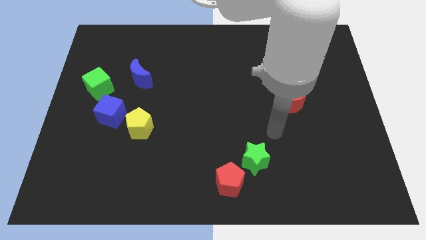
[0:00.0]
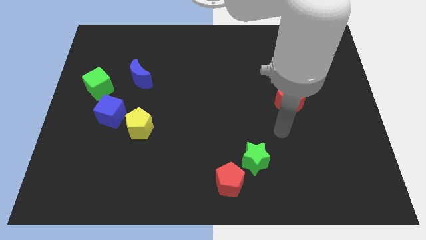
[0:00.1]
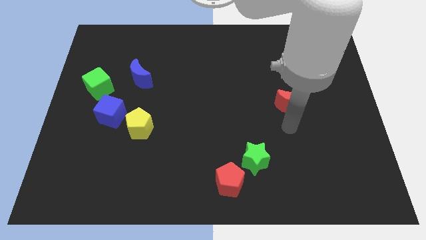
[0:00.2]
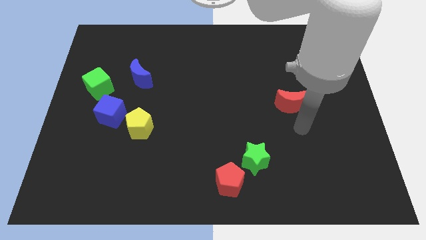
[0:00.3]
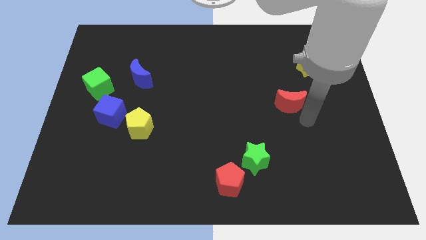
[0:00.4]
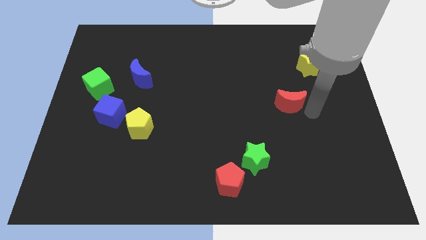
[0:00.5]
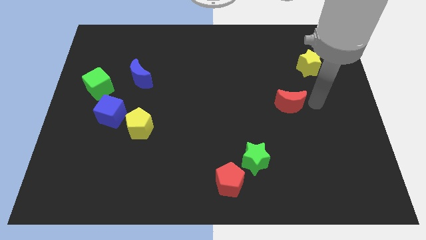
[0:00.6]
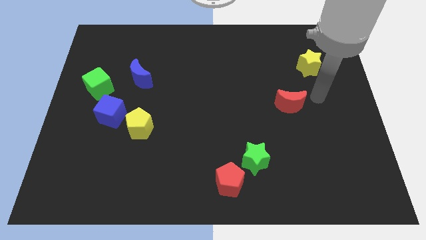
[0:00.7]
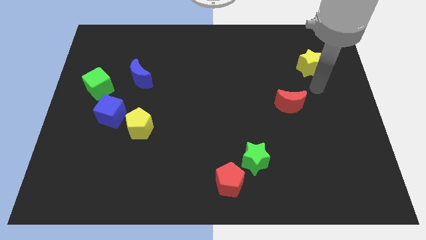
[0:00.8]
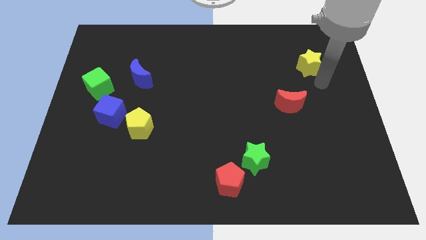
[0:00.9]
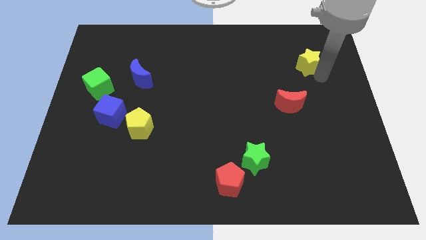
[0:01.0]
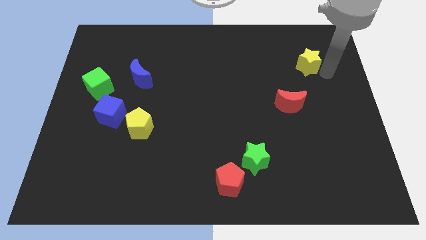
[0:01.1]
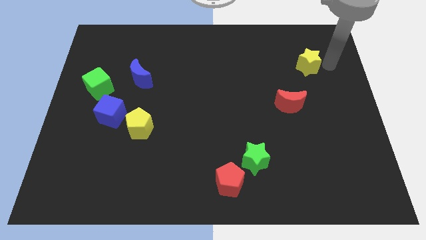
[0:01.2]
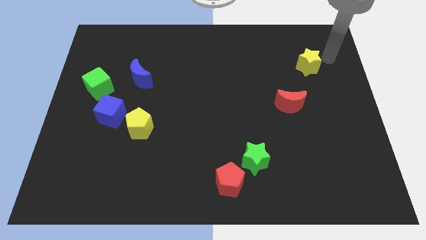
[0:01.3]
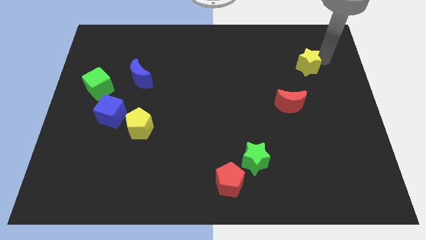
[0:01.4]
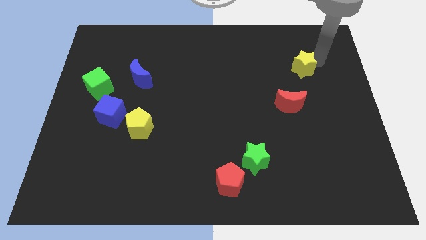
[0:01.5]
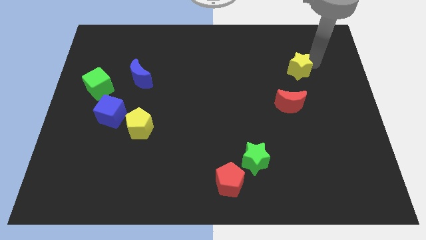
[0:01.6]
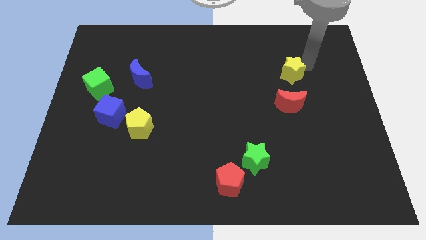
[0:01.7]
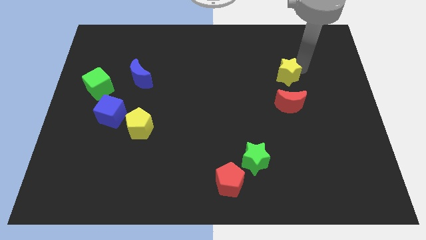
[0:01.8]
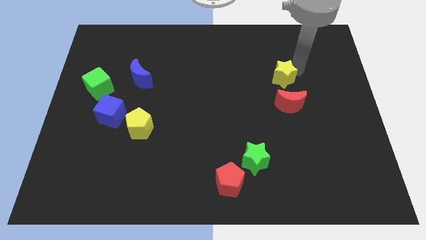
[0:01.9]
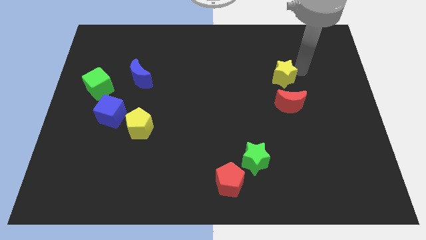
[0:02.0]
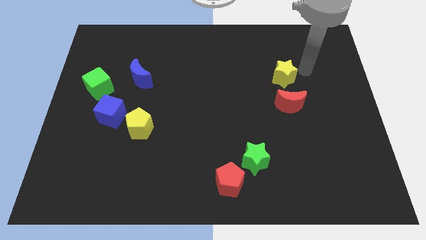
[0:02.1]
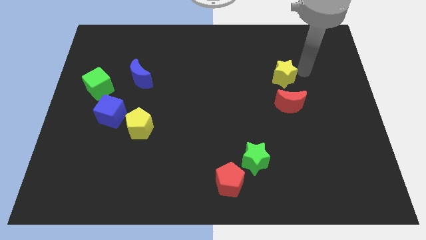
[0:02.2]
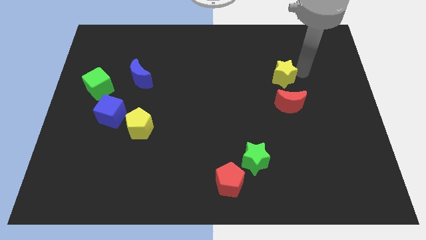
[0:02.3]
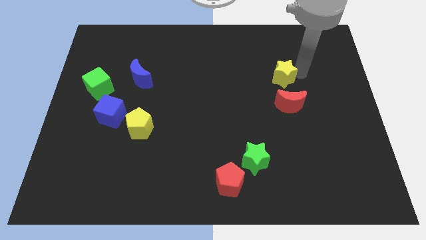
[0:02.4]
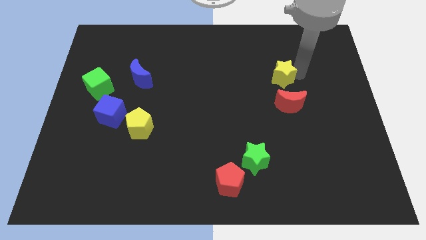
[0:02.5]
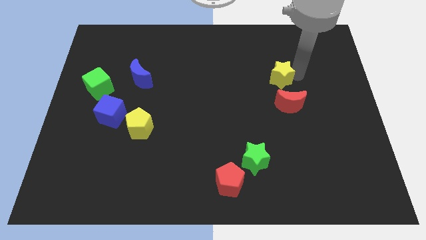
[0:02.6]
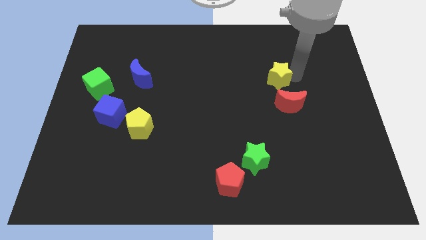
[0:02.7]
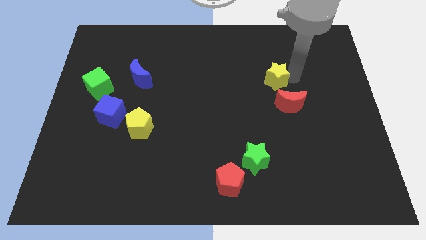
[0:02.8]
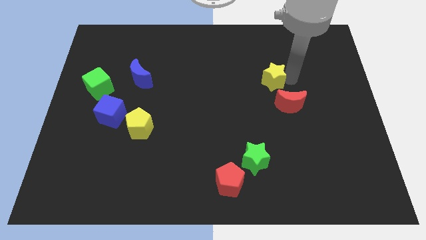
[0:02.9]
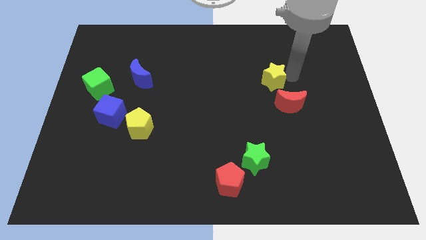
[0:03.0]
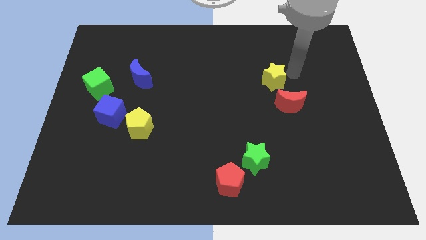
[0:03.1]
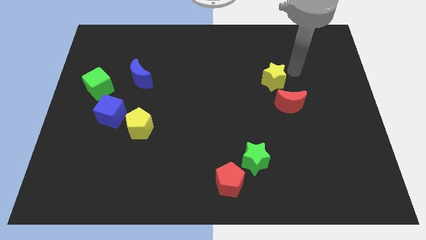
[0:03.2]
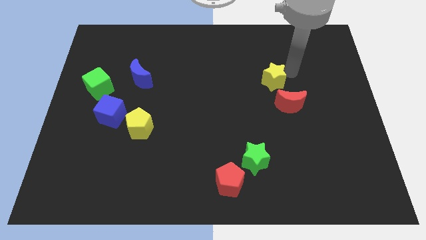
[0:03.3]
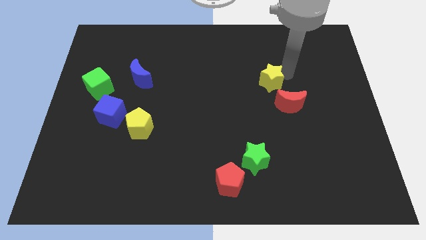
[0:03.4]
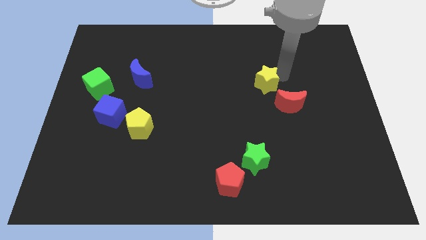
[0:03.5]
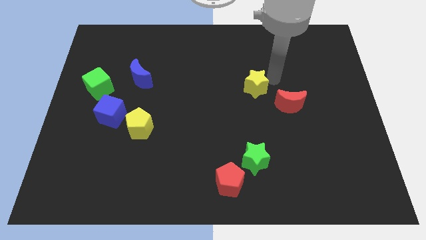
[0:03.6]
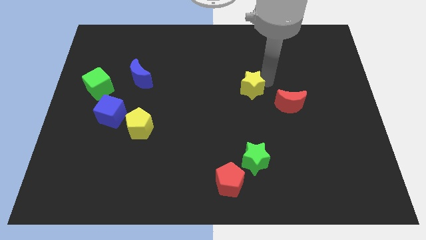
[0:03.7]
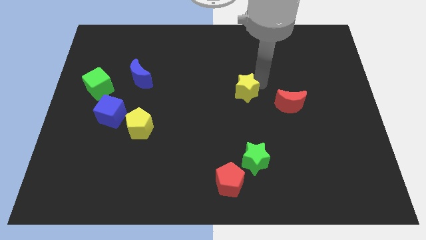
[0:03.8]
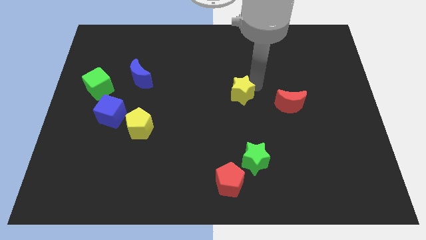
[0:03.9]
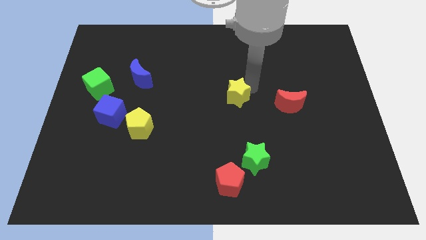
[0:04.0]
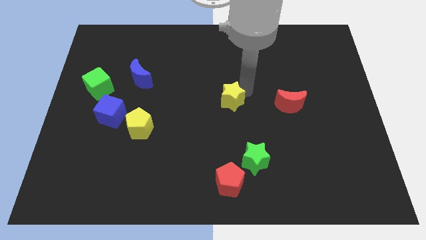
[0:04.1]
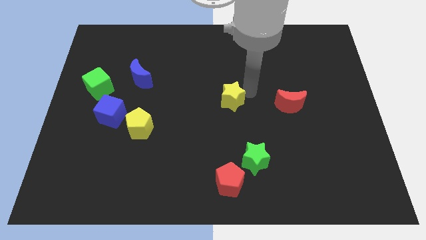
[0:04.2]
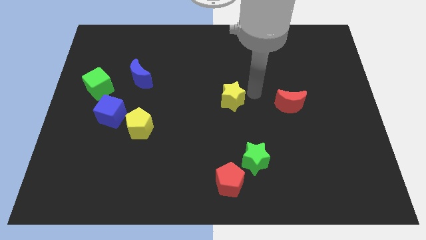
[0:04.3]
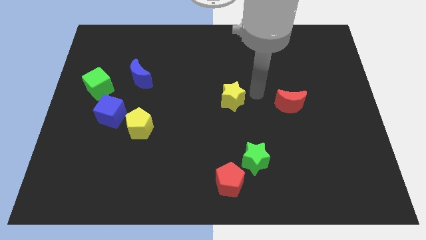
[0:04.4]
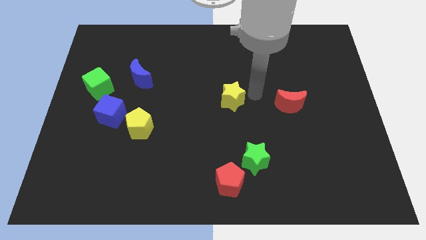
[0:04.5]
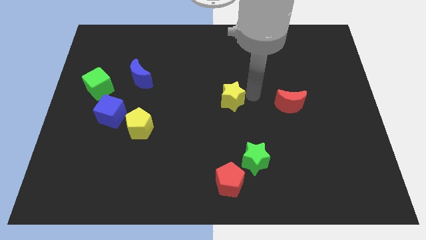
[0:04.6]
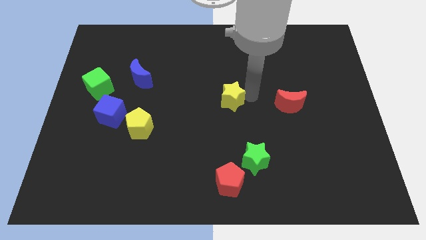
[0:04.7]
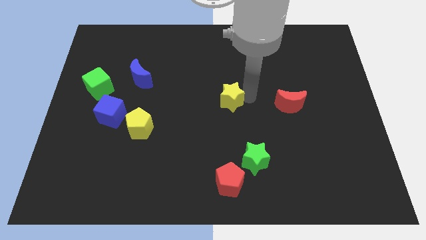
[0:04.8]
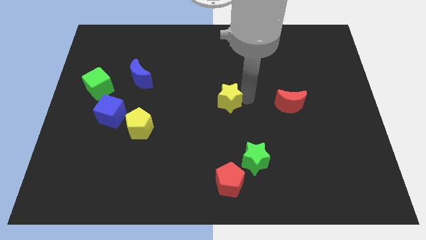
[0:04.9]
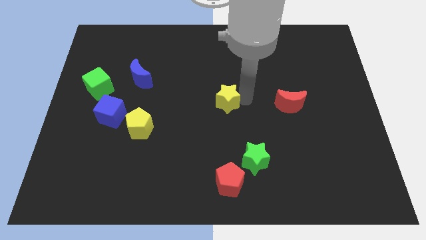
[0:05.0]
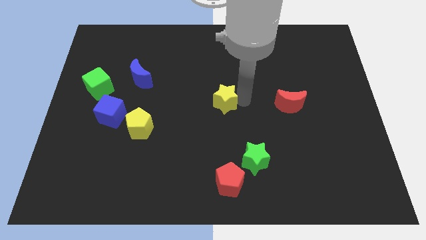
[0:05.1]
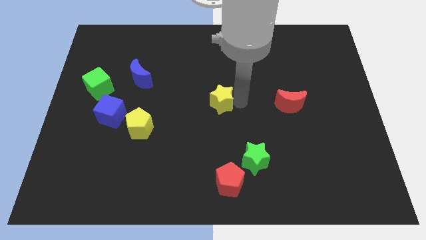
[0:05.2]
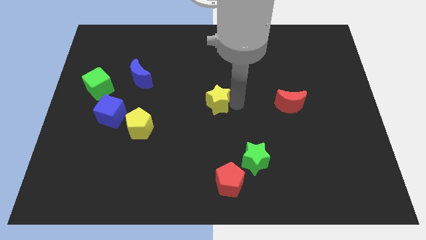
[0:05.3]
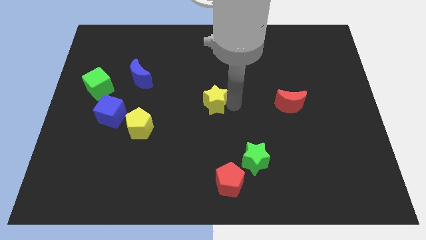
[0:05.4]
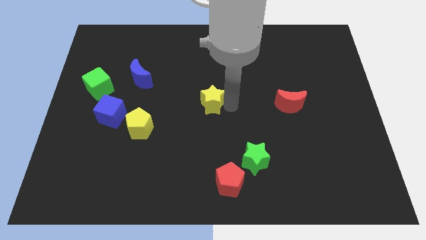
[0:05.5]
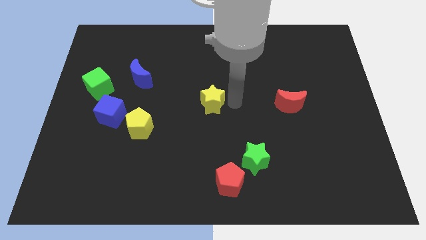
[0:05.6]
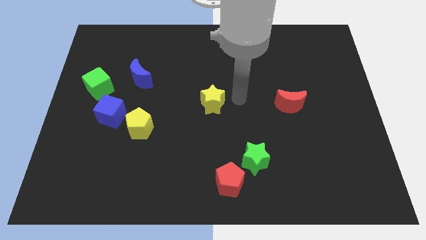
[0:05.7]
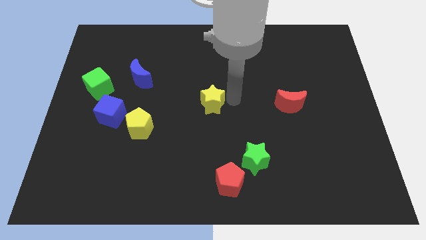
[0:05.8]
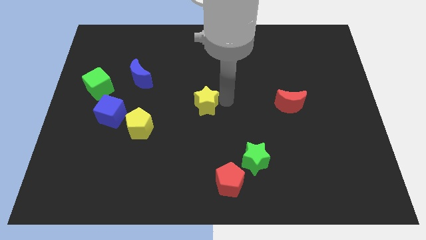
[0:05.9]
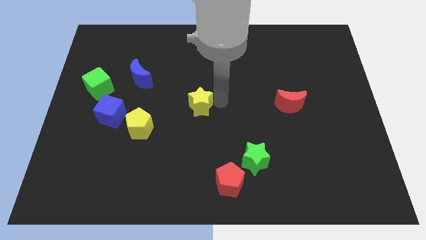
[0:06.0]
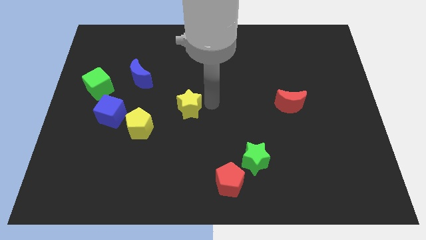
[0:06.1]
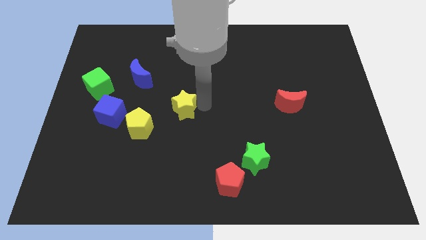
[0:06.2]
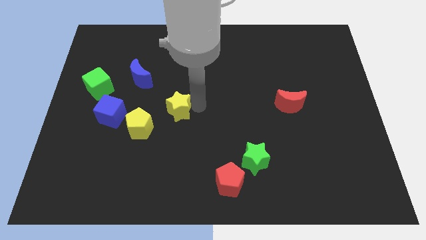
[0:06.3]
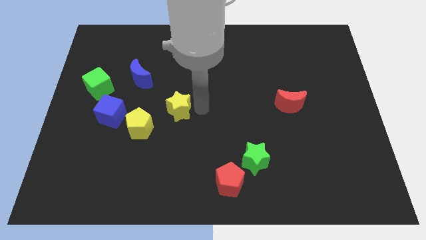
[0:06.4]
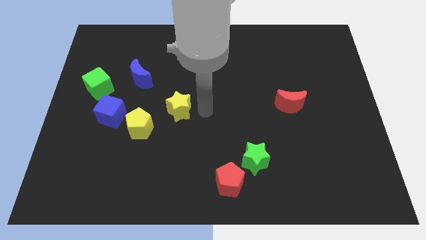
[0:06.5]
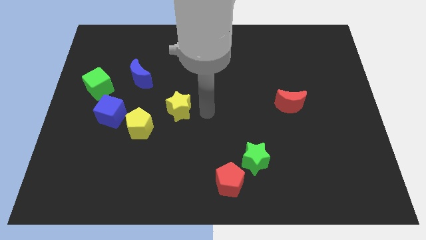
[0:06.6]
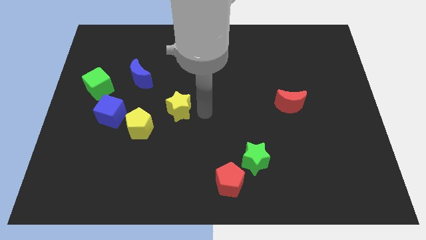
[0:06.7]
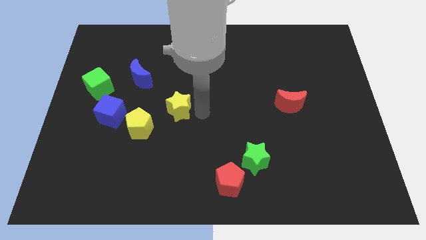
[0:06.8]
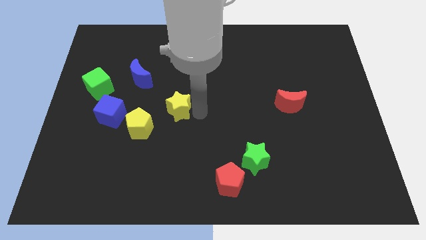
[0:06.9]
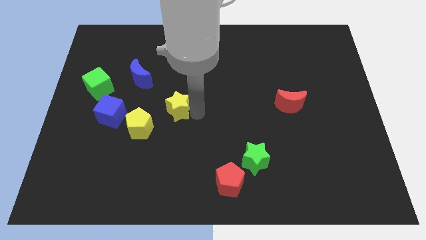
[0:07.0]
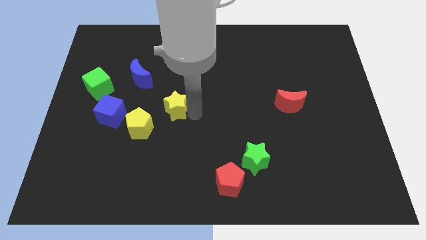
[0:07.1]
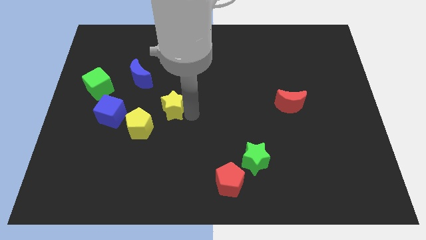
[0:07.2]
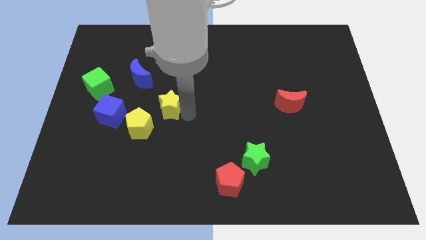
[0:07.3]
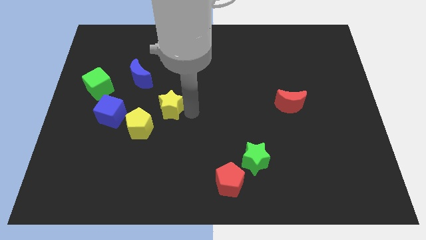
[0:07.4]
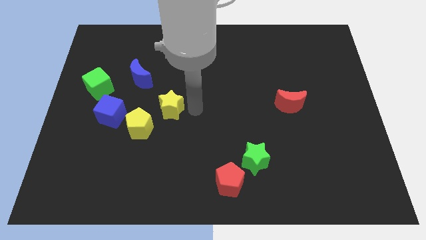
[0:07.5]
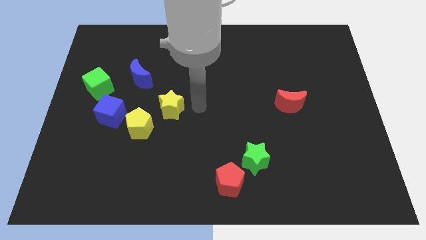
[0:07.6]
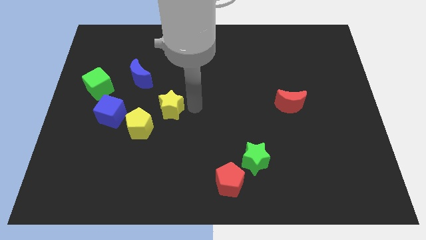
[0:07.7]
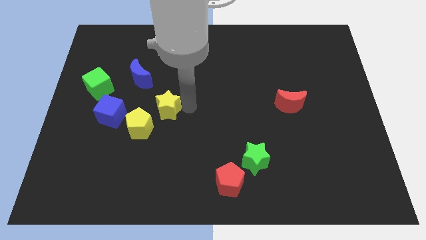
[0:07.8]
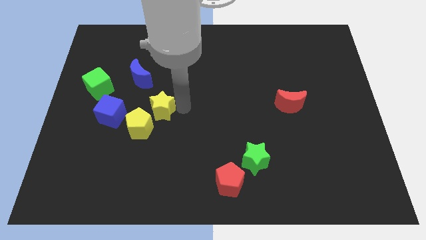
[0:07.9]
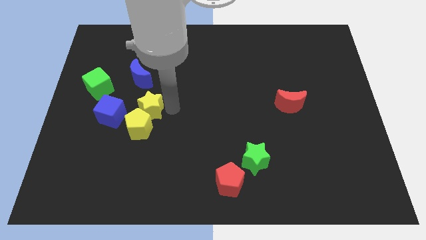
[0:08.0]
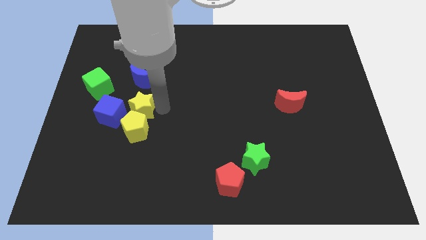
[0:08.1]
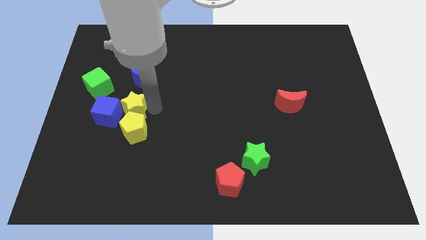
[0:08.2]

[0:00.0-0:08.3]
move the yellow star close to the blue cube
